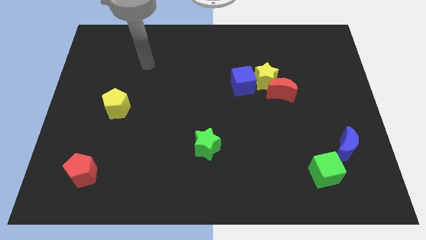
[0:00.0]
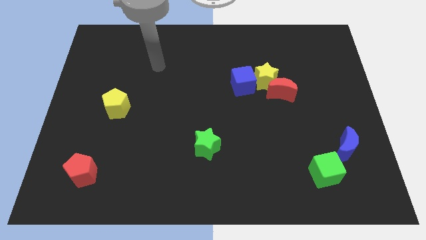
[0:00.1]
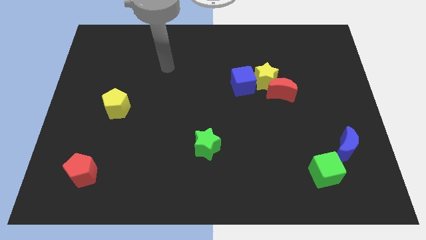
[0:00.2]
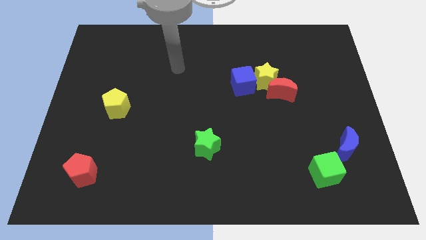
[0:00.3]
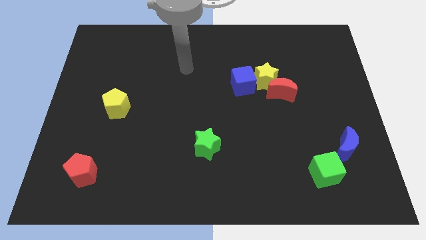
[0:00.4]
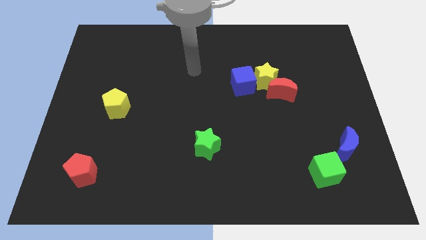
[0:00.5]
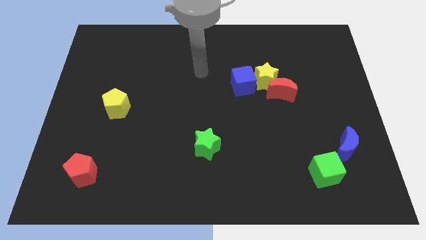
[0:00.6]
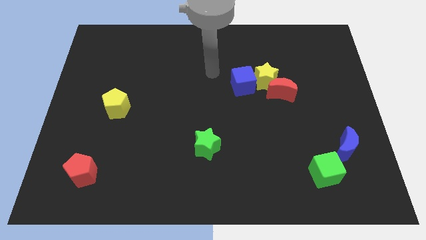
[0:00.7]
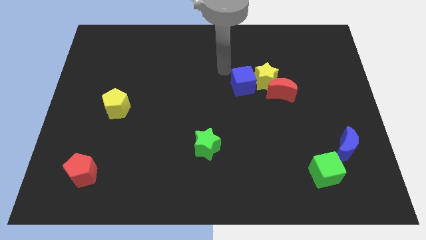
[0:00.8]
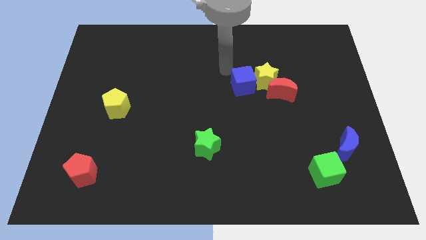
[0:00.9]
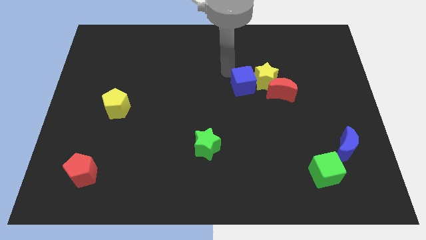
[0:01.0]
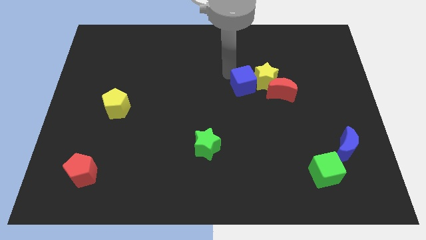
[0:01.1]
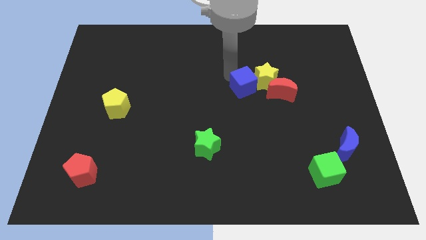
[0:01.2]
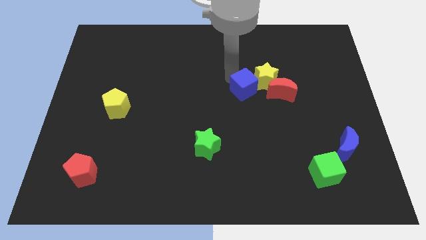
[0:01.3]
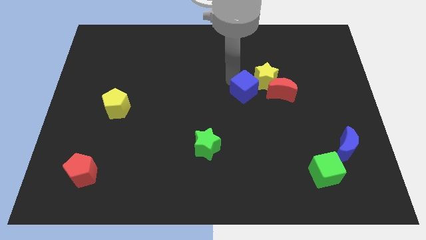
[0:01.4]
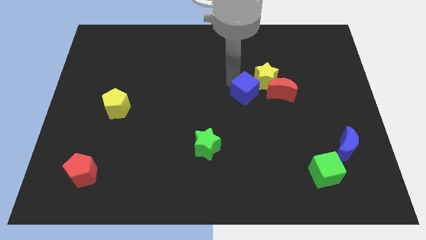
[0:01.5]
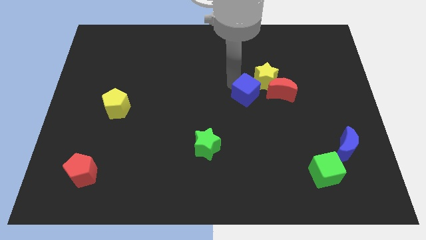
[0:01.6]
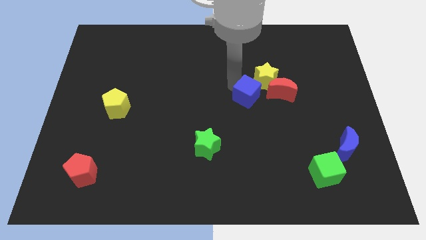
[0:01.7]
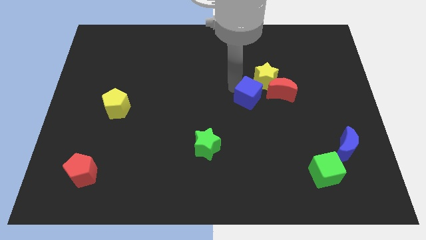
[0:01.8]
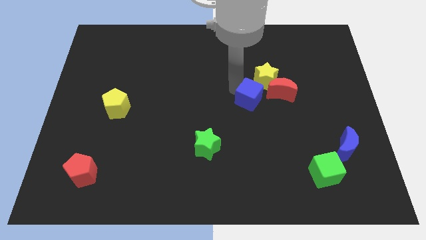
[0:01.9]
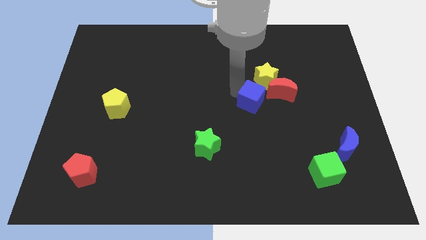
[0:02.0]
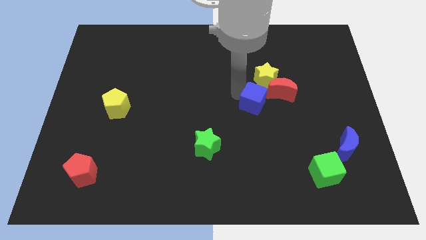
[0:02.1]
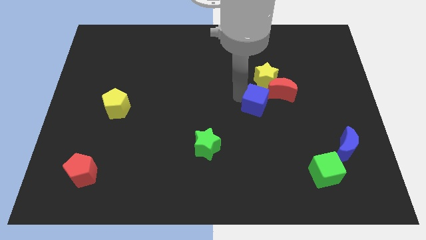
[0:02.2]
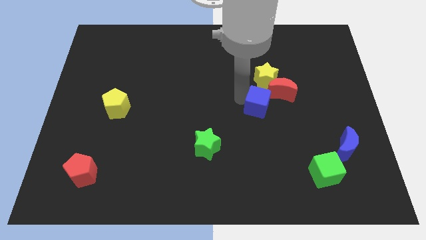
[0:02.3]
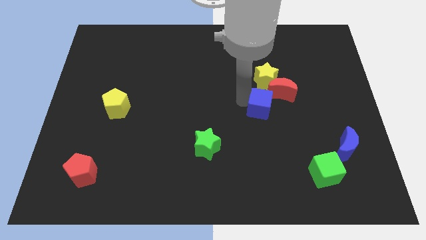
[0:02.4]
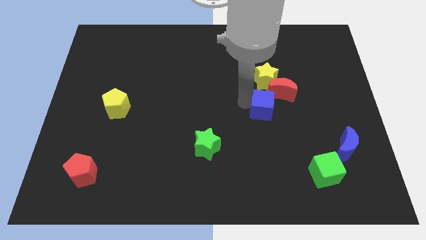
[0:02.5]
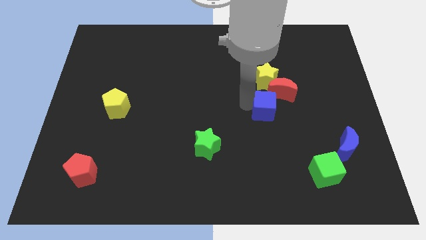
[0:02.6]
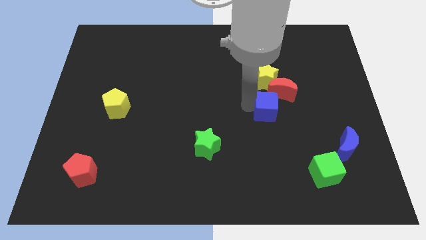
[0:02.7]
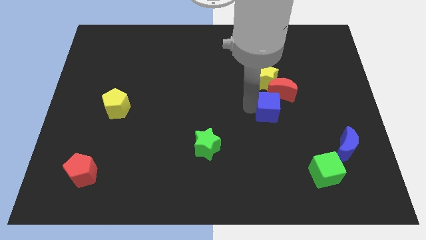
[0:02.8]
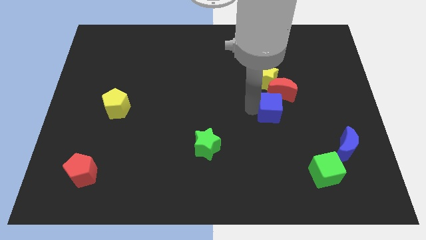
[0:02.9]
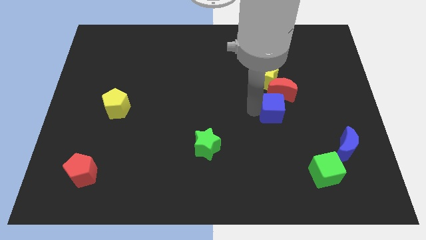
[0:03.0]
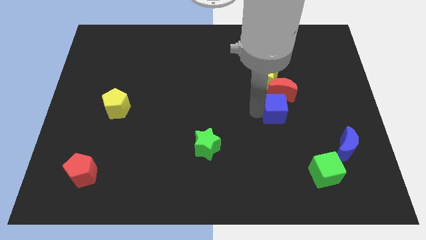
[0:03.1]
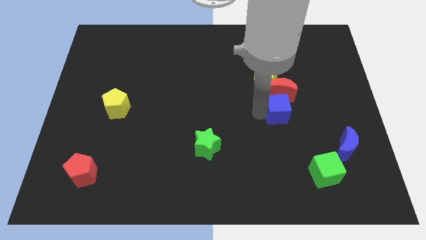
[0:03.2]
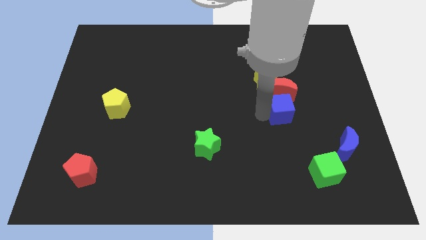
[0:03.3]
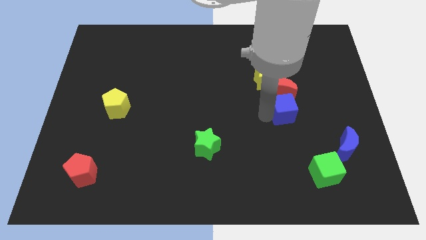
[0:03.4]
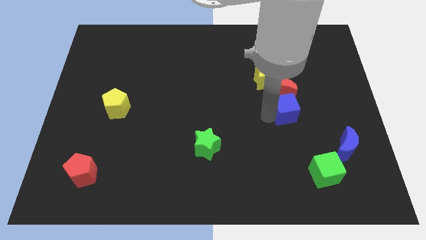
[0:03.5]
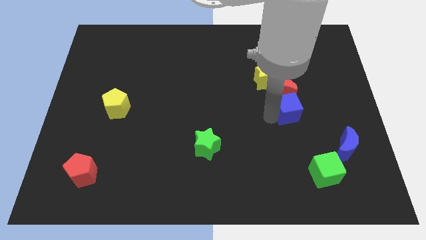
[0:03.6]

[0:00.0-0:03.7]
slightly push the blue cube right

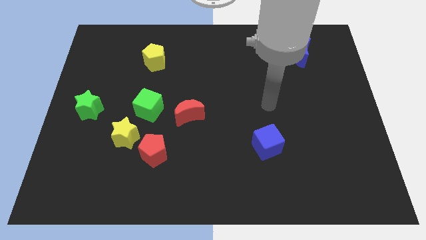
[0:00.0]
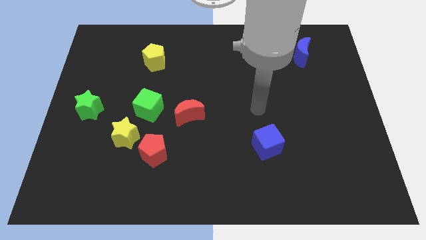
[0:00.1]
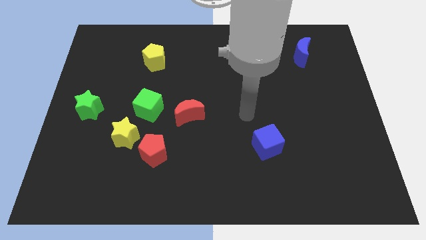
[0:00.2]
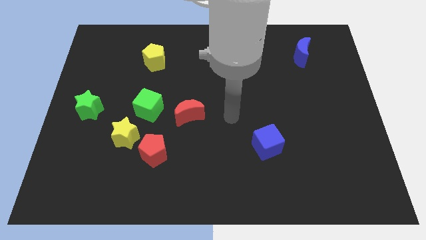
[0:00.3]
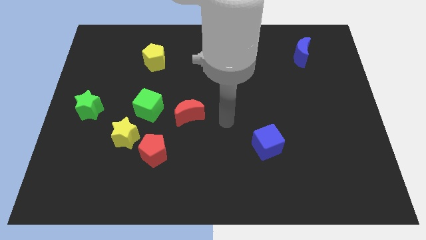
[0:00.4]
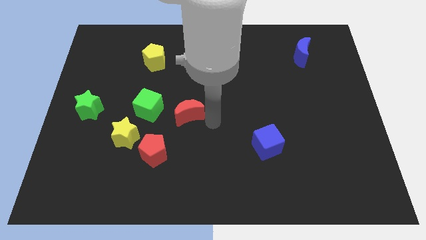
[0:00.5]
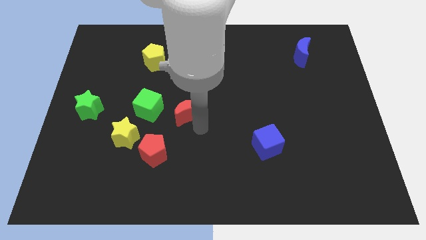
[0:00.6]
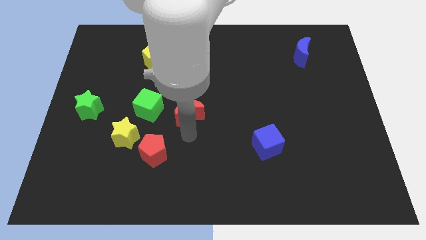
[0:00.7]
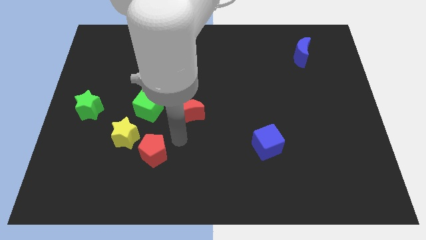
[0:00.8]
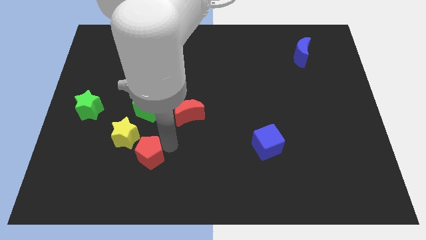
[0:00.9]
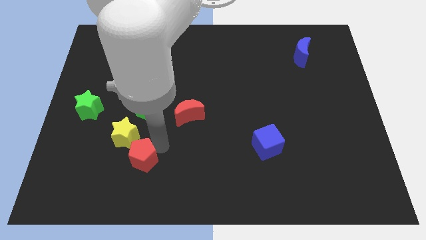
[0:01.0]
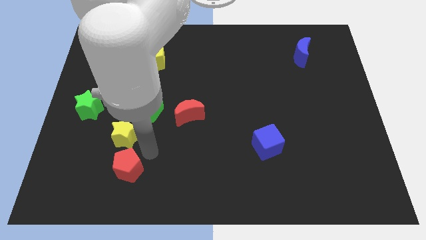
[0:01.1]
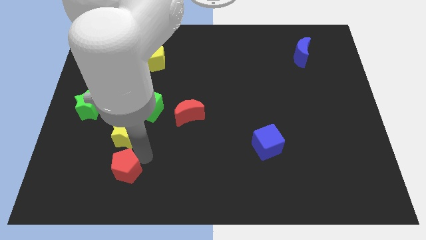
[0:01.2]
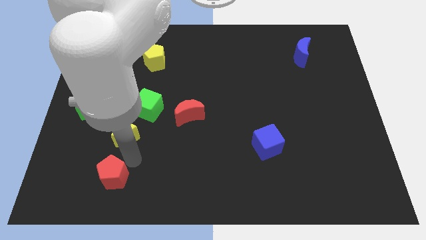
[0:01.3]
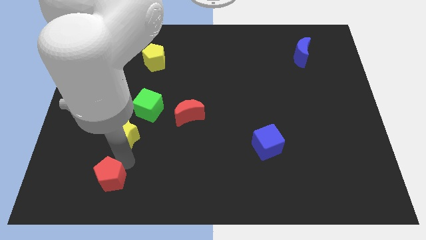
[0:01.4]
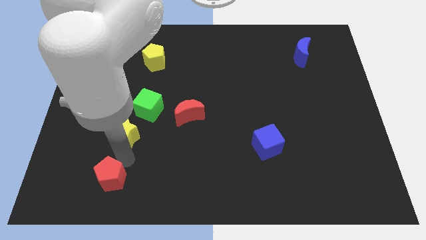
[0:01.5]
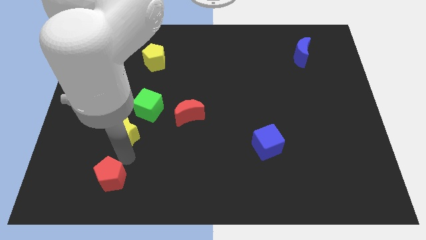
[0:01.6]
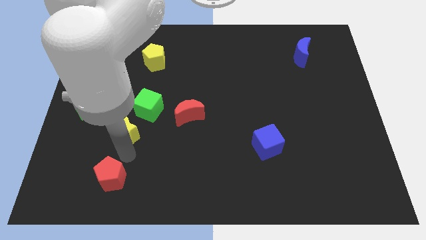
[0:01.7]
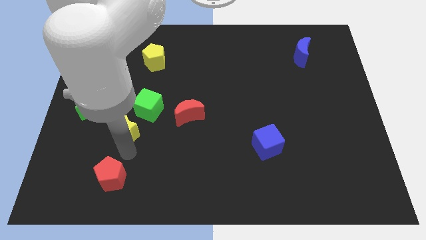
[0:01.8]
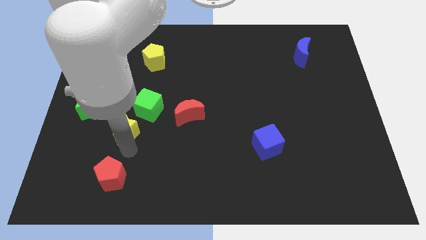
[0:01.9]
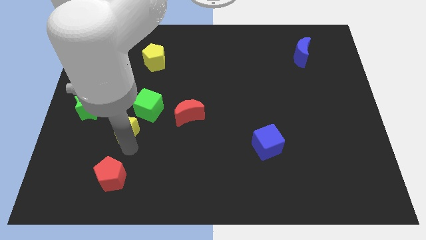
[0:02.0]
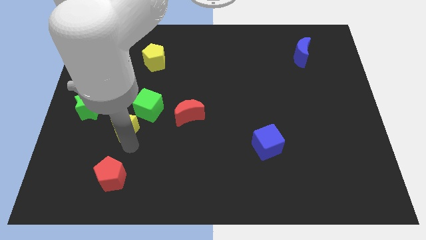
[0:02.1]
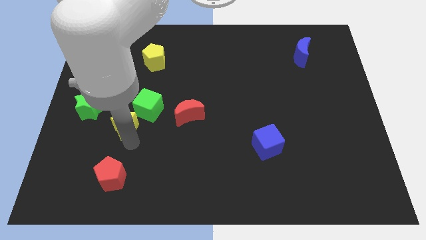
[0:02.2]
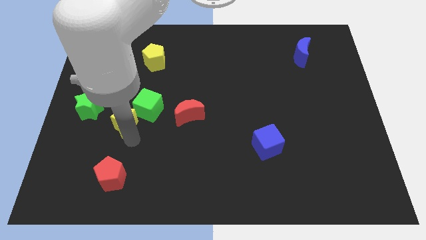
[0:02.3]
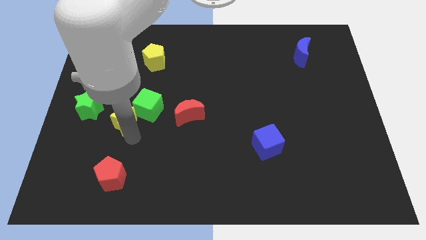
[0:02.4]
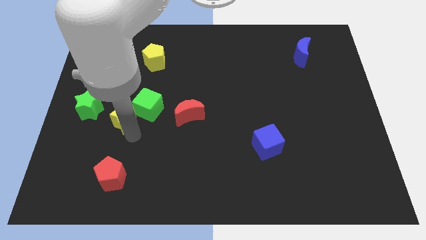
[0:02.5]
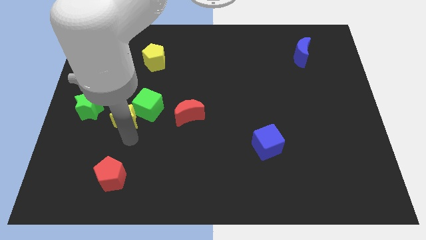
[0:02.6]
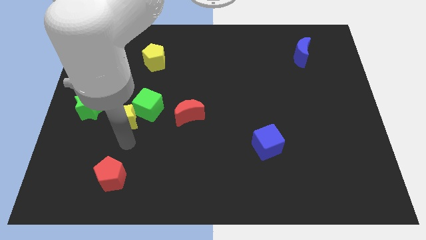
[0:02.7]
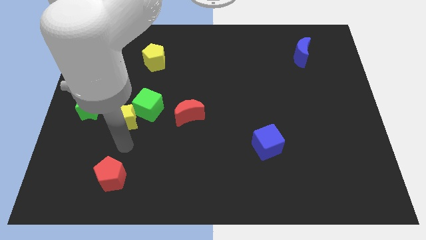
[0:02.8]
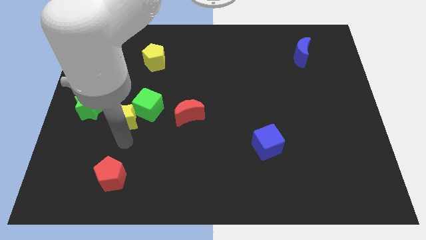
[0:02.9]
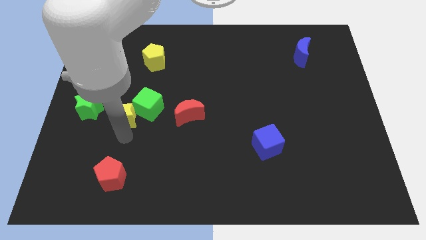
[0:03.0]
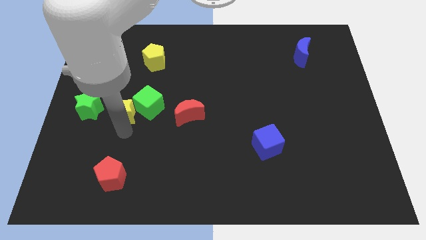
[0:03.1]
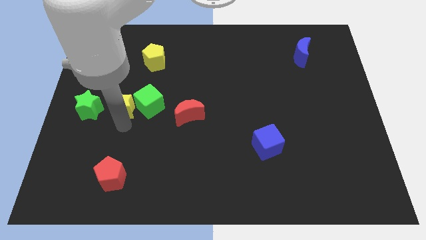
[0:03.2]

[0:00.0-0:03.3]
push the yellow star upwards slightly

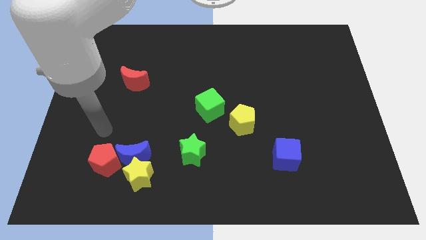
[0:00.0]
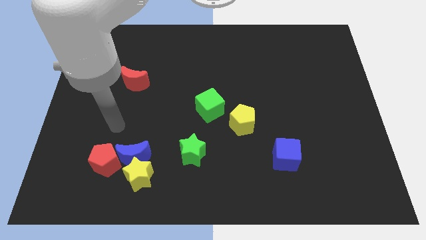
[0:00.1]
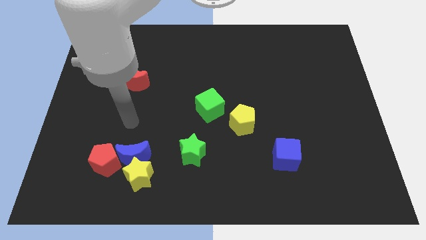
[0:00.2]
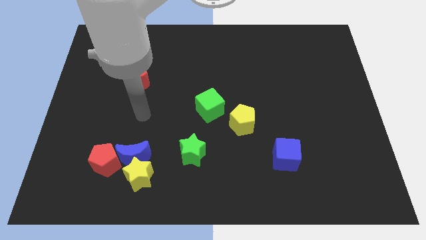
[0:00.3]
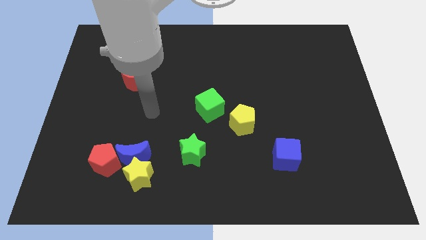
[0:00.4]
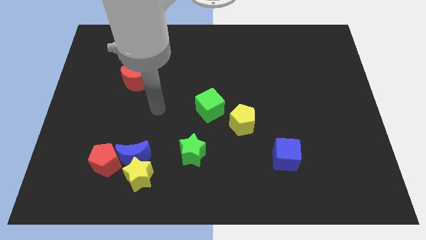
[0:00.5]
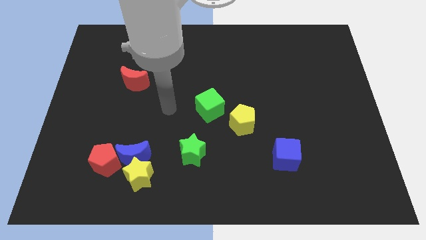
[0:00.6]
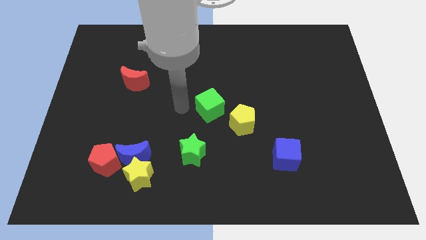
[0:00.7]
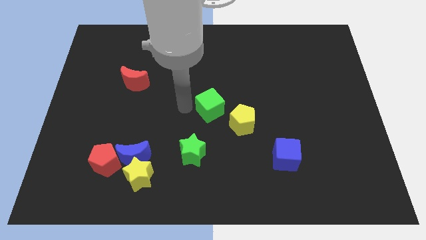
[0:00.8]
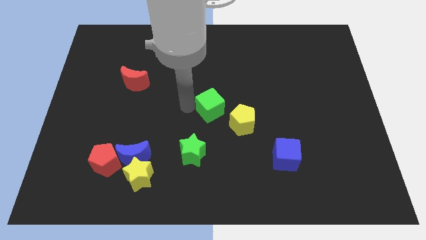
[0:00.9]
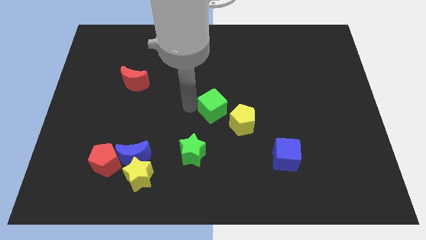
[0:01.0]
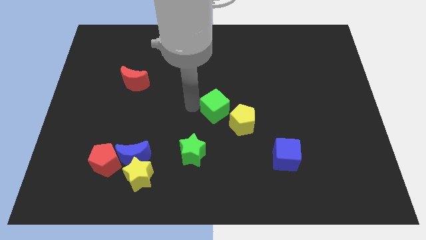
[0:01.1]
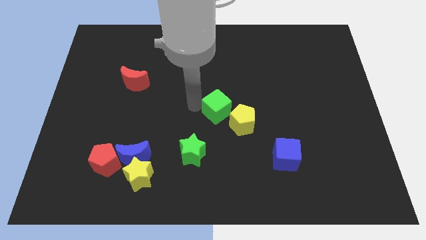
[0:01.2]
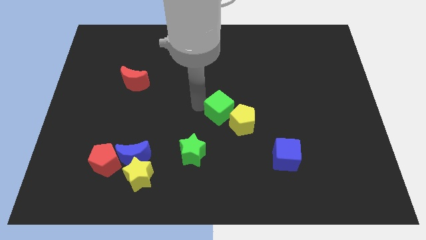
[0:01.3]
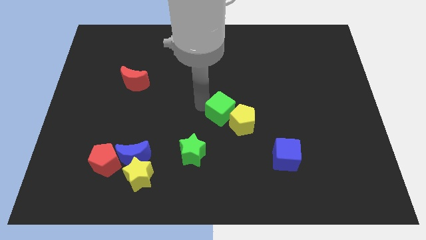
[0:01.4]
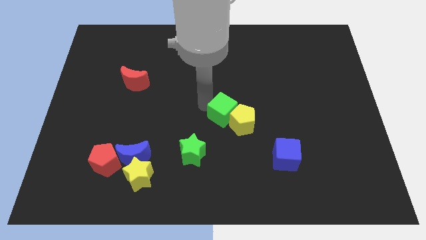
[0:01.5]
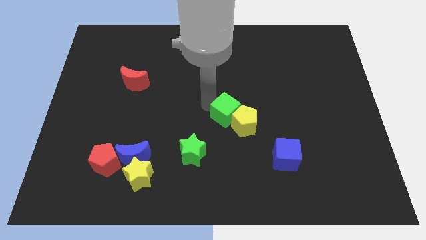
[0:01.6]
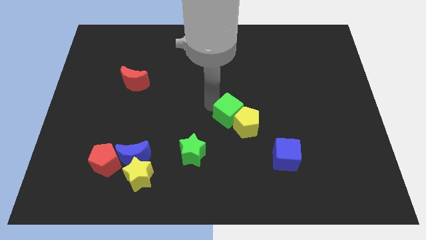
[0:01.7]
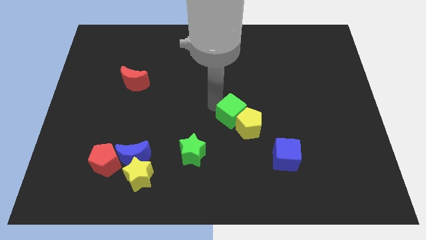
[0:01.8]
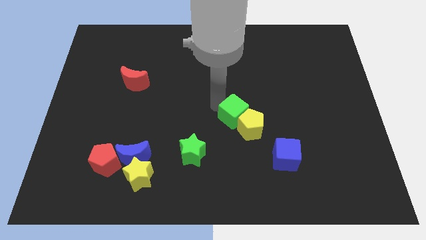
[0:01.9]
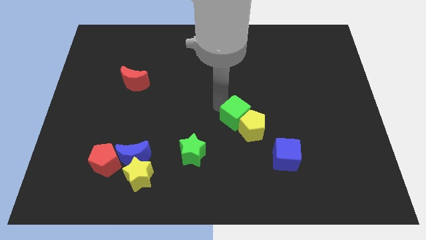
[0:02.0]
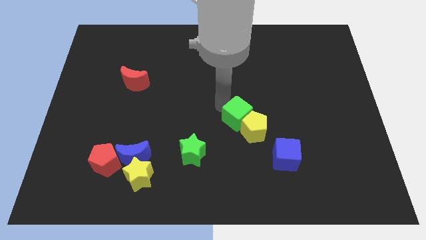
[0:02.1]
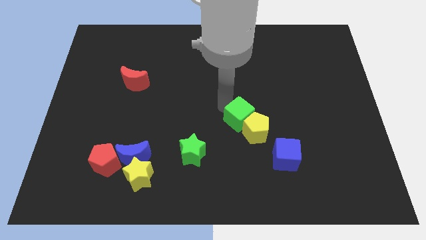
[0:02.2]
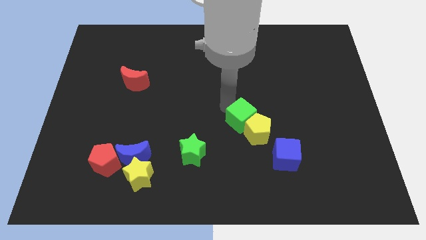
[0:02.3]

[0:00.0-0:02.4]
push the green cube a little bit right
